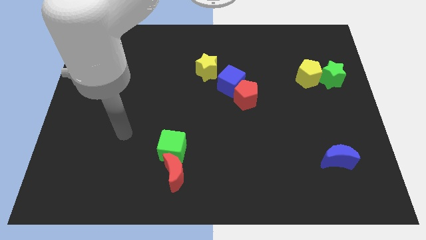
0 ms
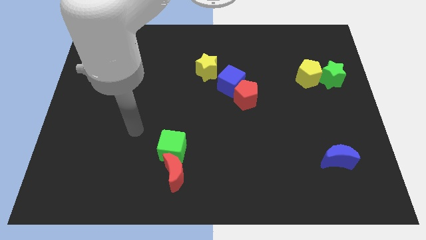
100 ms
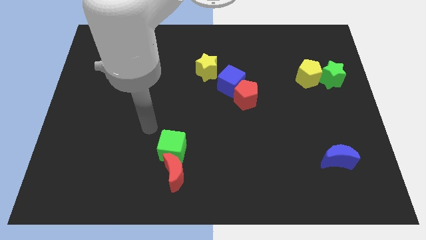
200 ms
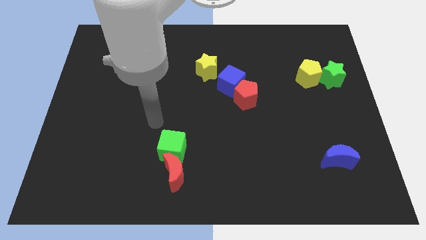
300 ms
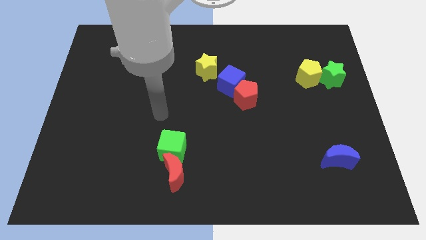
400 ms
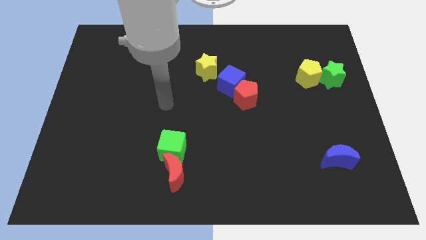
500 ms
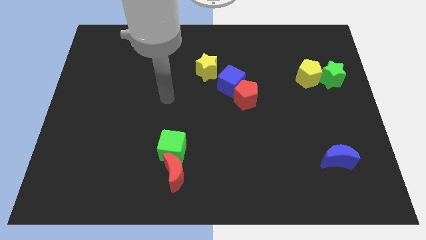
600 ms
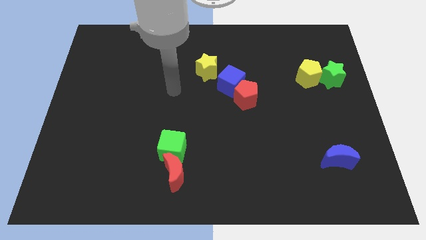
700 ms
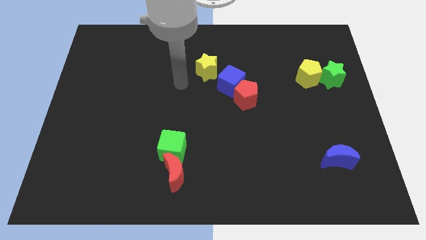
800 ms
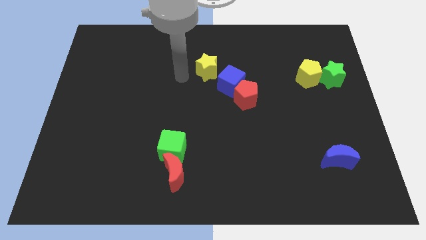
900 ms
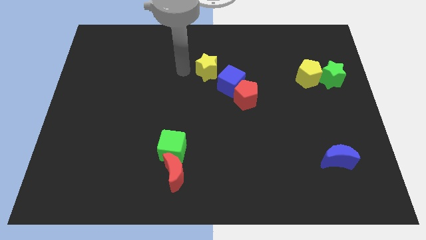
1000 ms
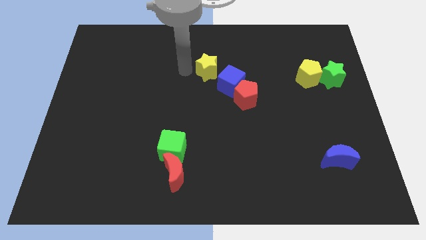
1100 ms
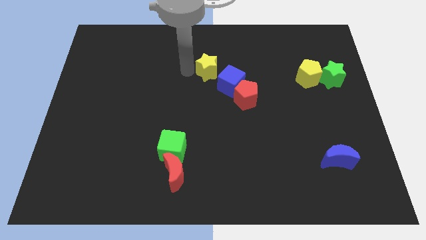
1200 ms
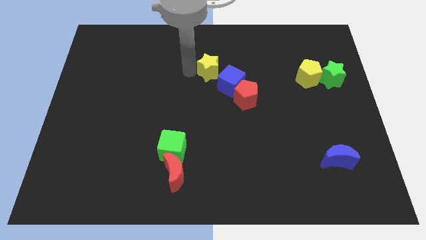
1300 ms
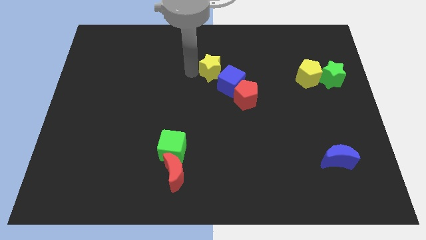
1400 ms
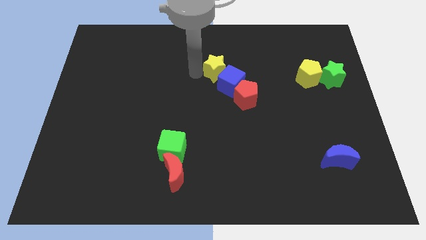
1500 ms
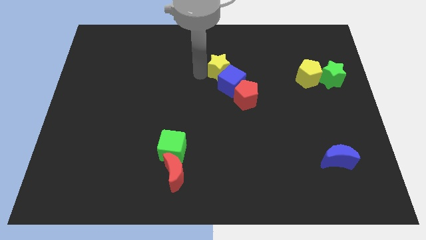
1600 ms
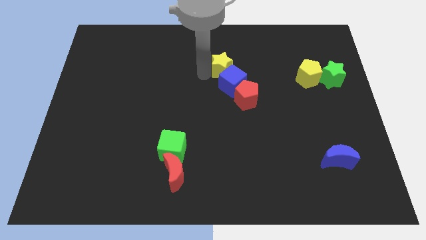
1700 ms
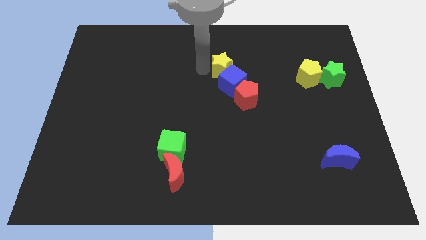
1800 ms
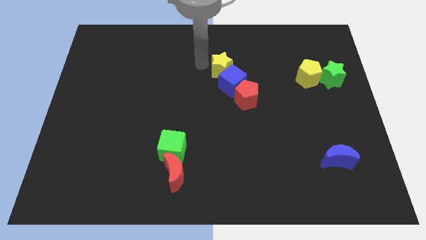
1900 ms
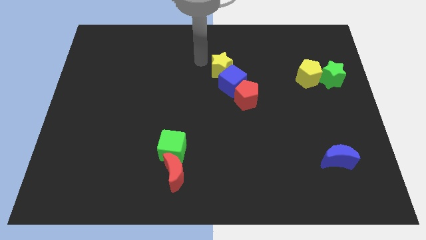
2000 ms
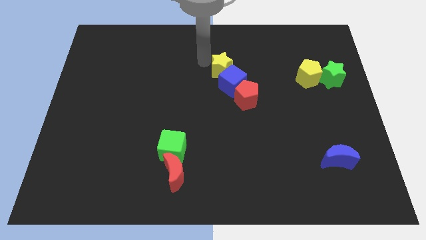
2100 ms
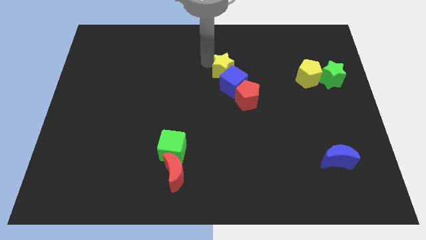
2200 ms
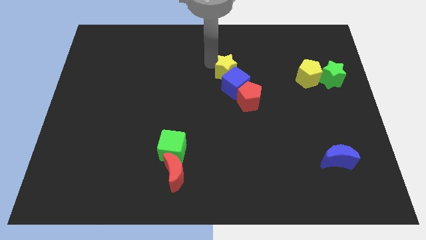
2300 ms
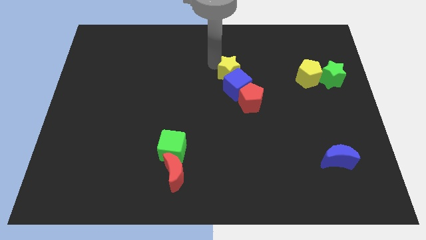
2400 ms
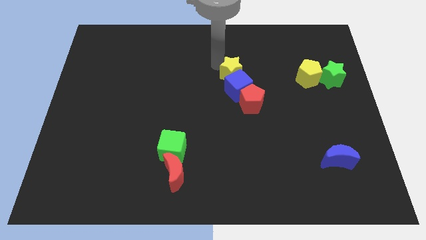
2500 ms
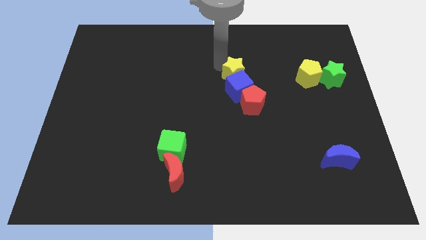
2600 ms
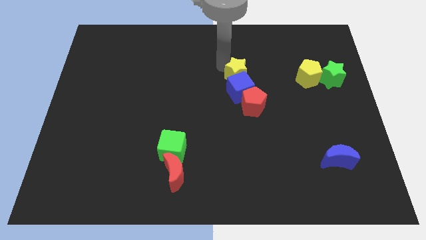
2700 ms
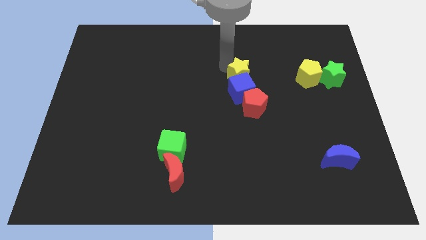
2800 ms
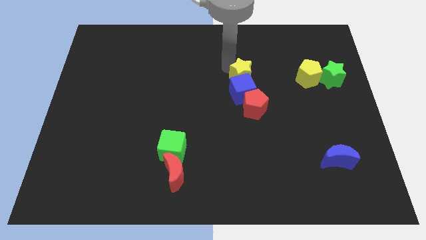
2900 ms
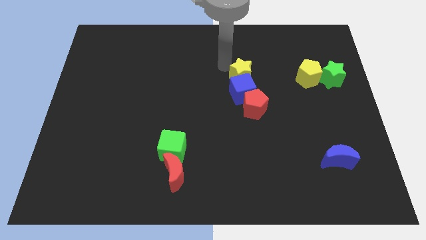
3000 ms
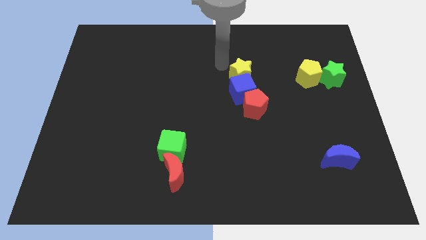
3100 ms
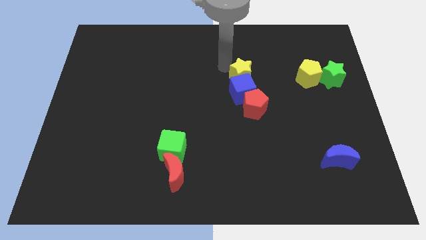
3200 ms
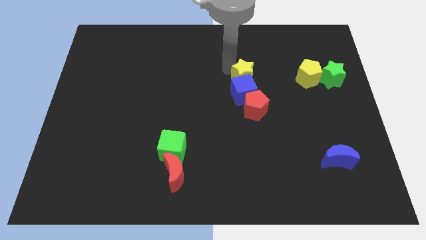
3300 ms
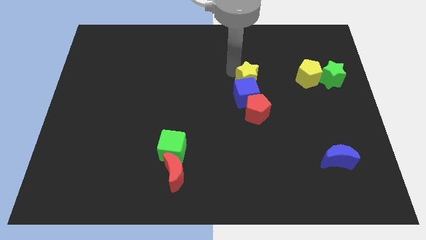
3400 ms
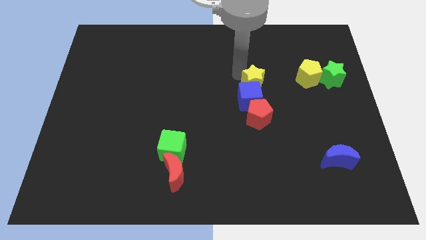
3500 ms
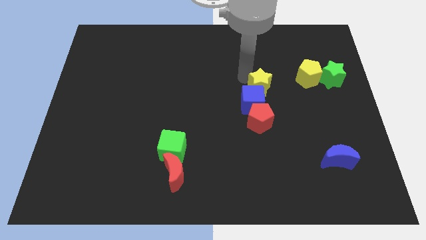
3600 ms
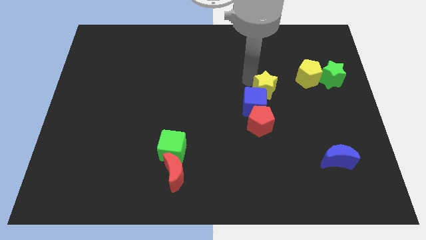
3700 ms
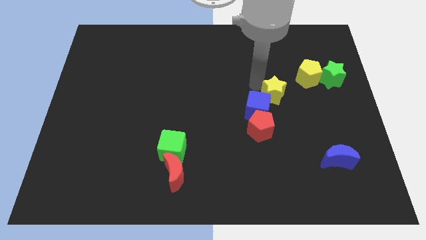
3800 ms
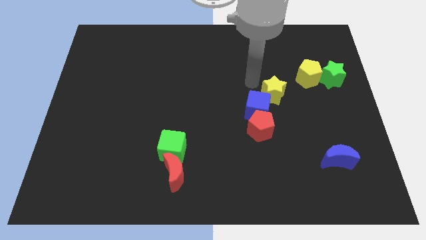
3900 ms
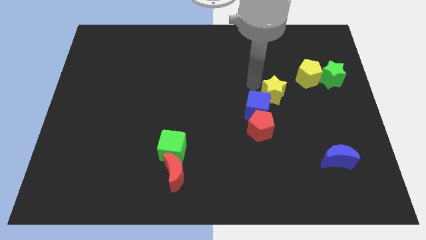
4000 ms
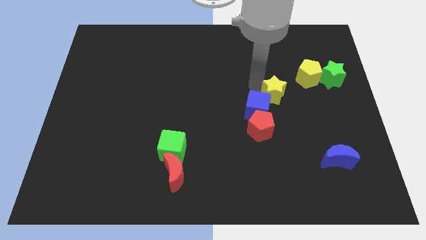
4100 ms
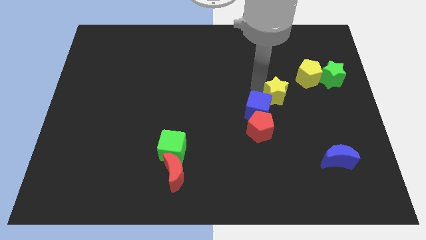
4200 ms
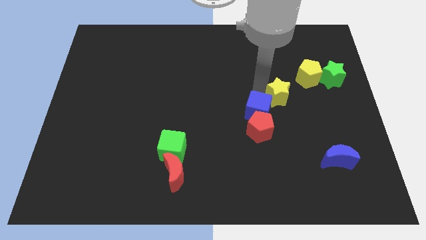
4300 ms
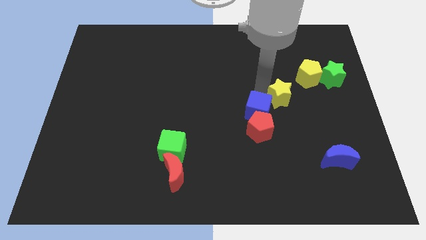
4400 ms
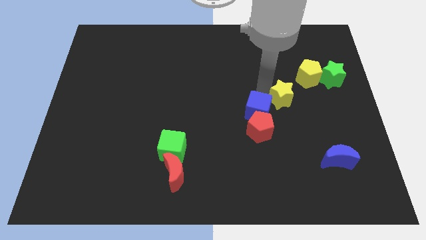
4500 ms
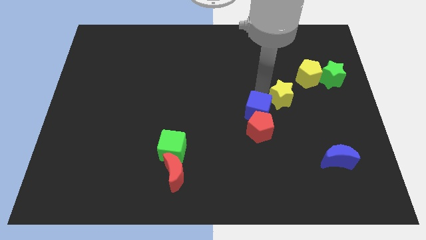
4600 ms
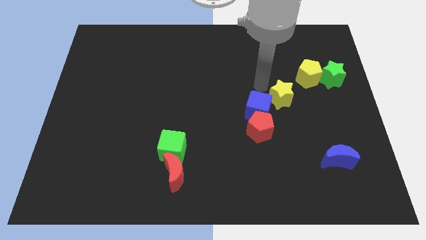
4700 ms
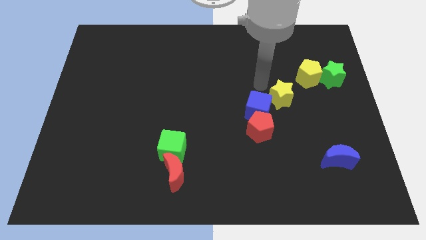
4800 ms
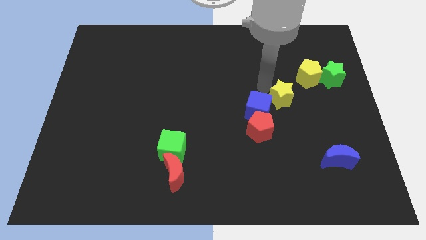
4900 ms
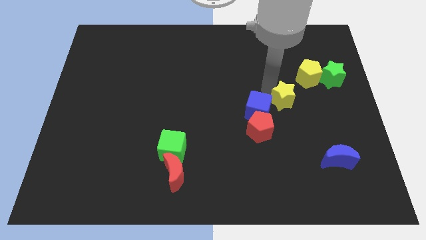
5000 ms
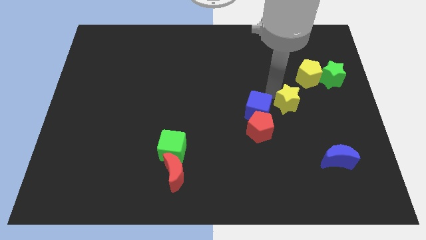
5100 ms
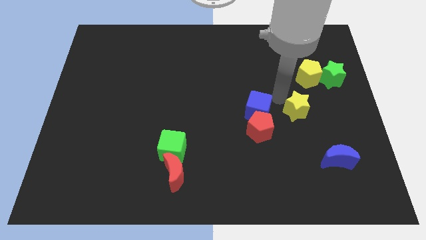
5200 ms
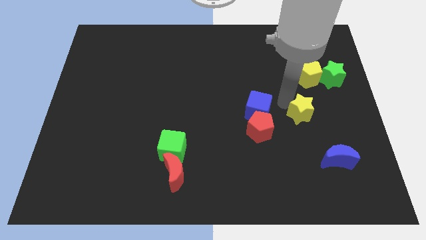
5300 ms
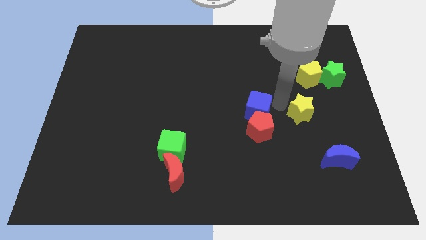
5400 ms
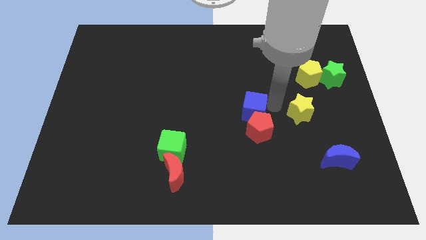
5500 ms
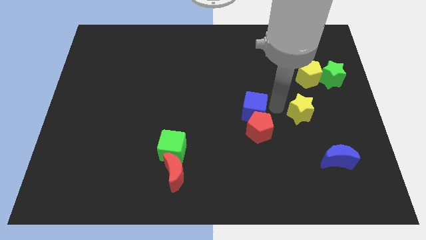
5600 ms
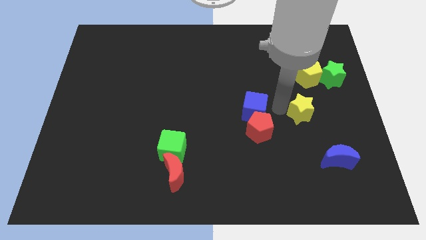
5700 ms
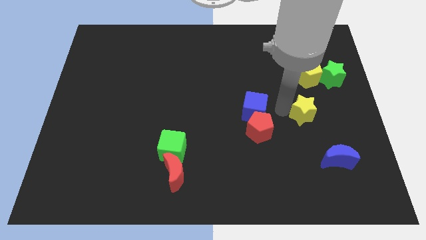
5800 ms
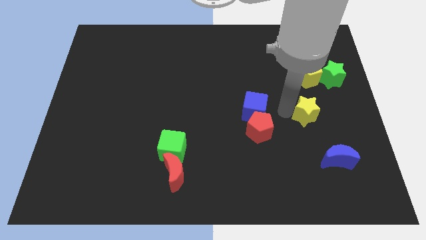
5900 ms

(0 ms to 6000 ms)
move the yellow star above the blue moon

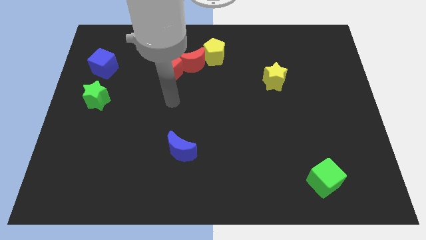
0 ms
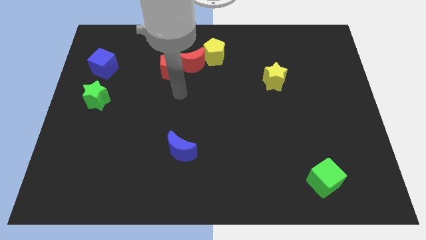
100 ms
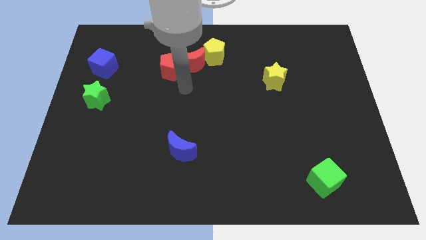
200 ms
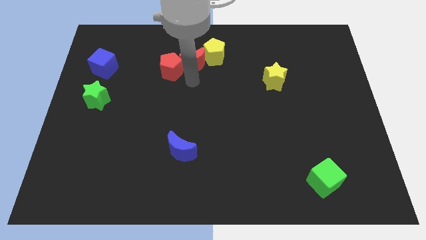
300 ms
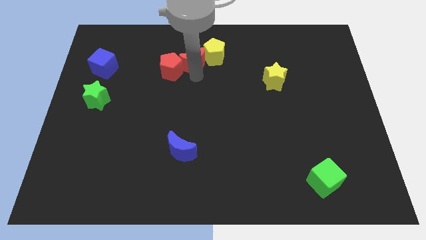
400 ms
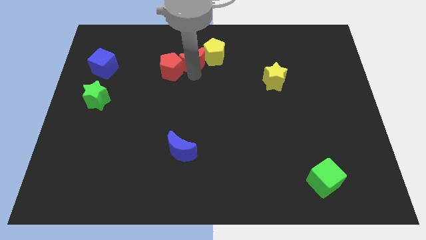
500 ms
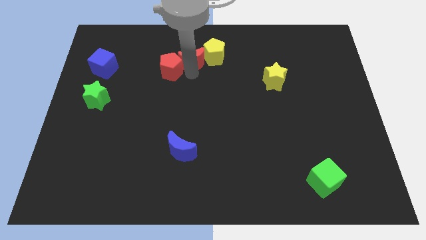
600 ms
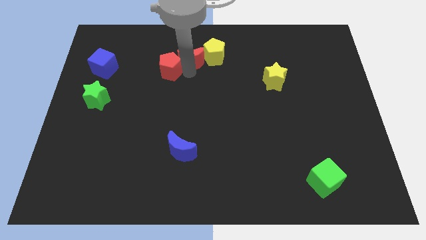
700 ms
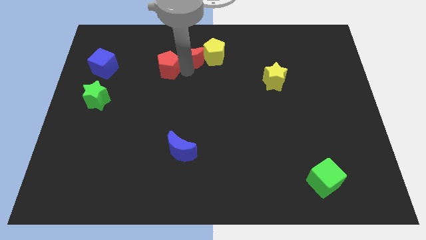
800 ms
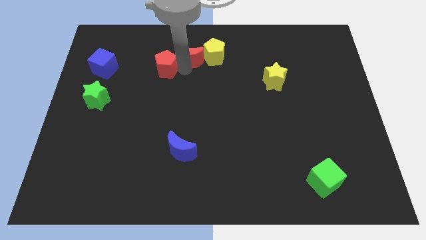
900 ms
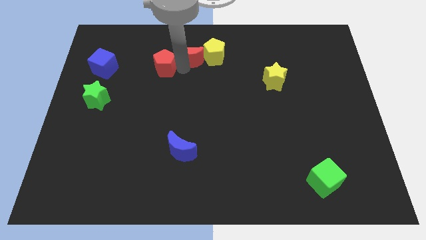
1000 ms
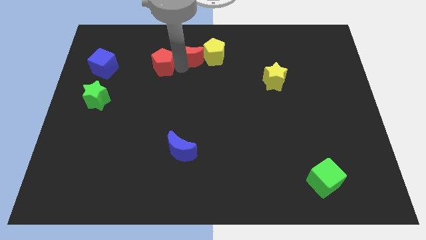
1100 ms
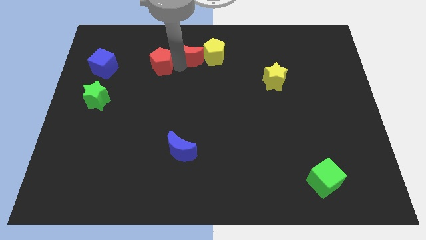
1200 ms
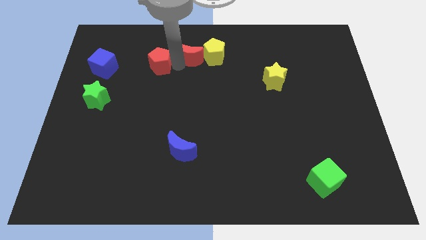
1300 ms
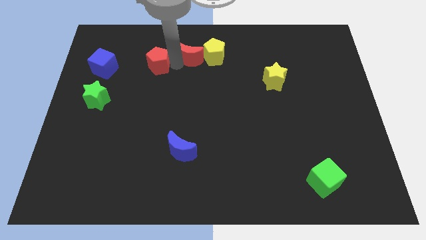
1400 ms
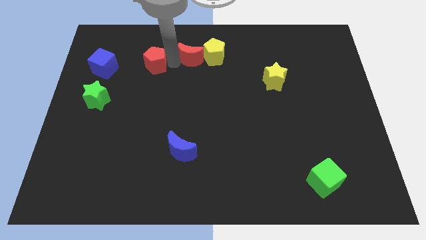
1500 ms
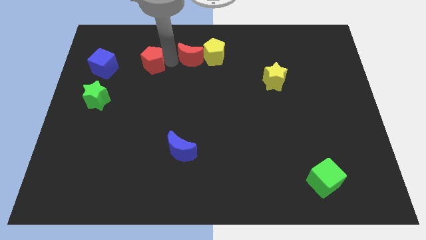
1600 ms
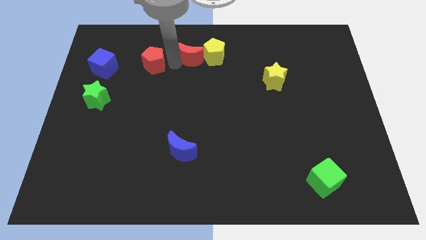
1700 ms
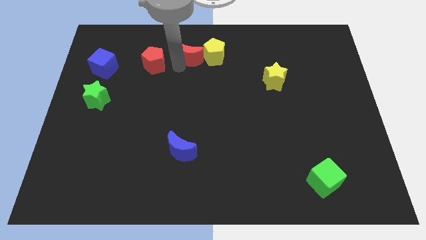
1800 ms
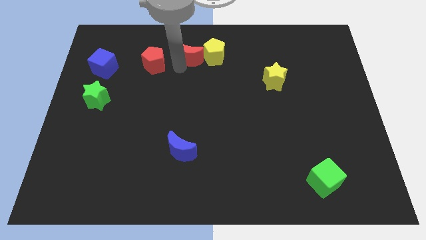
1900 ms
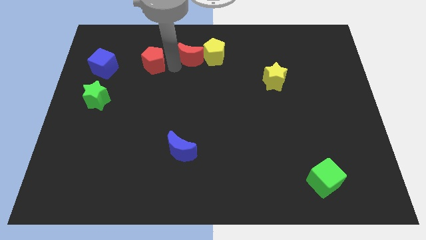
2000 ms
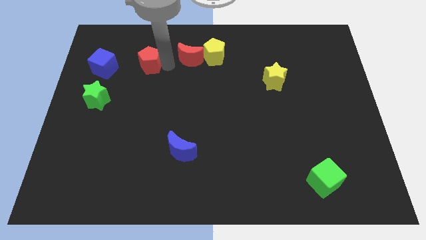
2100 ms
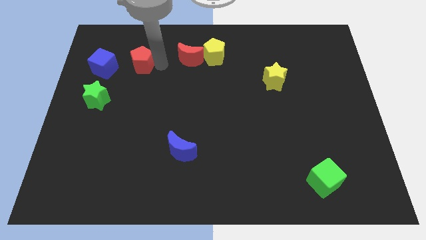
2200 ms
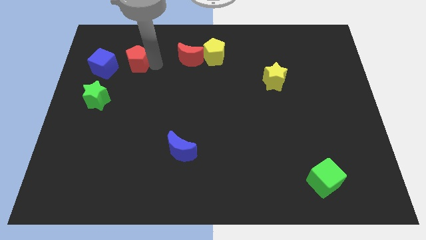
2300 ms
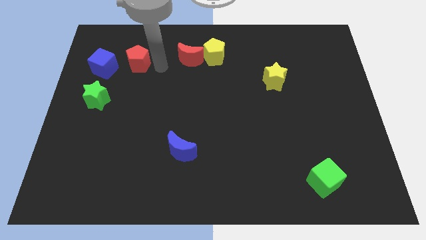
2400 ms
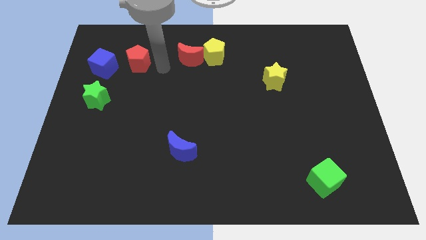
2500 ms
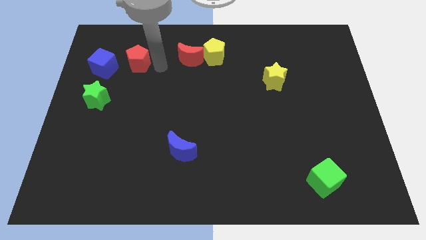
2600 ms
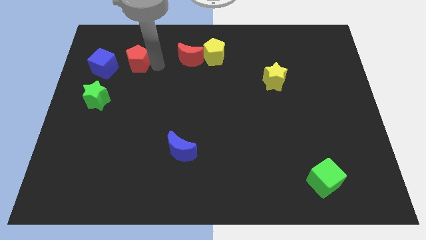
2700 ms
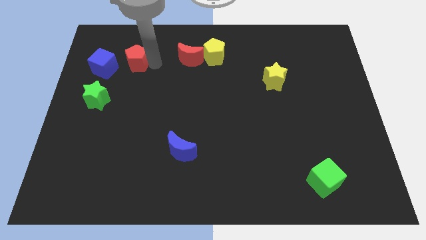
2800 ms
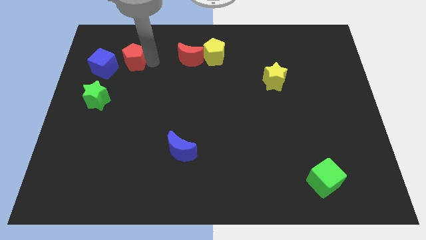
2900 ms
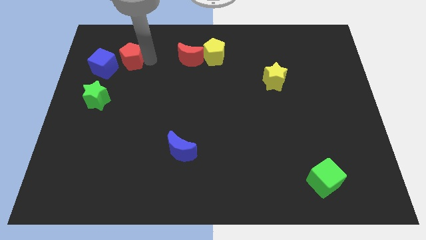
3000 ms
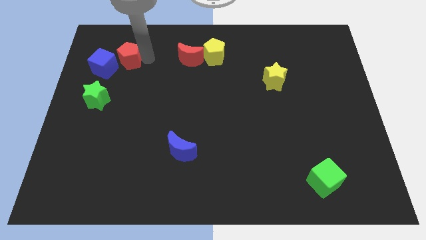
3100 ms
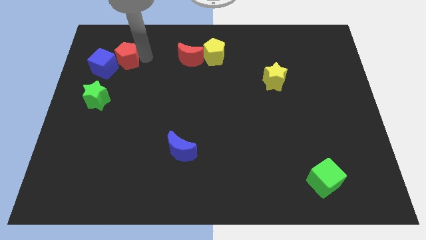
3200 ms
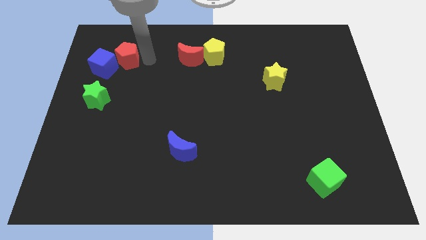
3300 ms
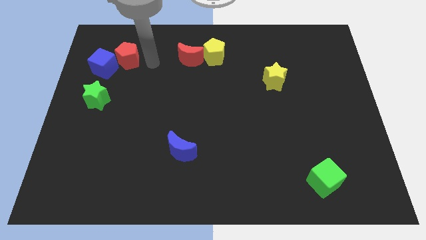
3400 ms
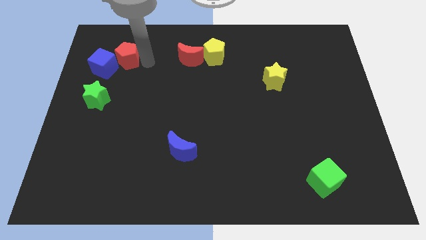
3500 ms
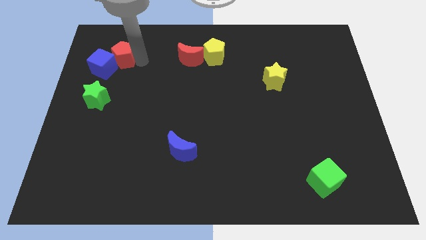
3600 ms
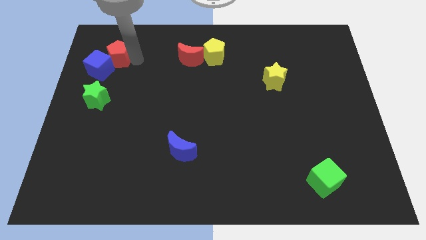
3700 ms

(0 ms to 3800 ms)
move the red pentagon to the top of the green star
